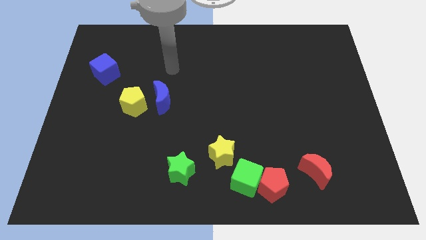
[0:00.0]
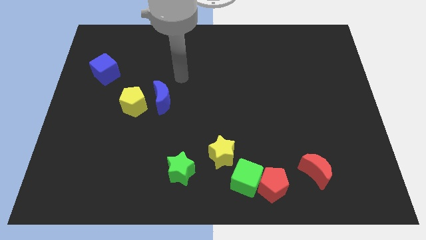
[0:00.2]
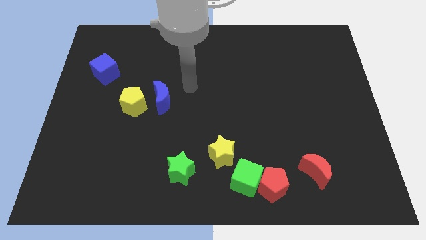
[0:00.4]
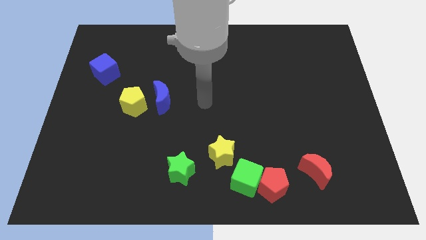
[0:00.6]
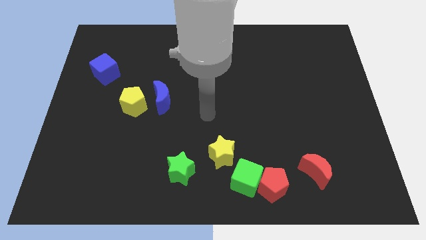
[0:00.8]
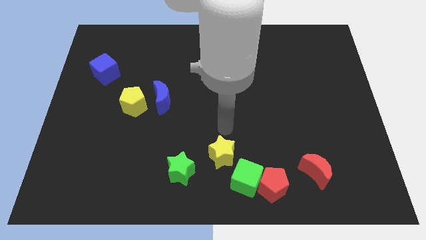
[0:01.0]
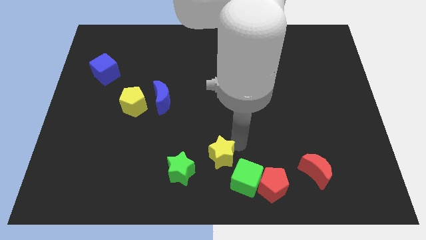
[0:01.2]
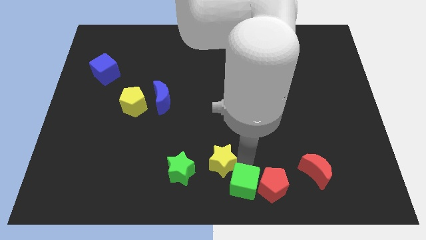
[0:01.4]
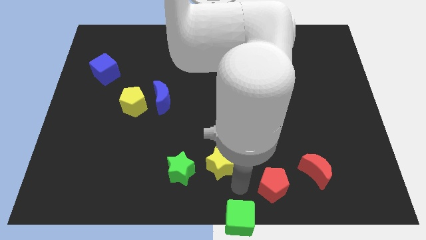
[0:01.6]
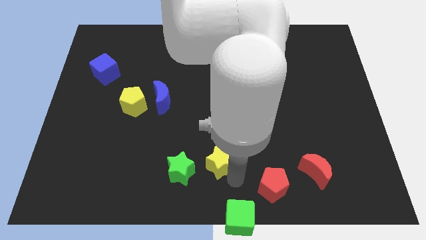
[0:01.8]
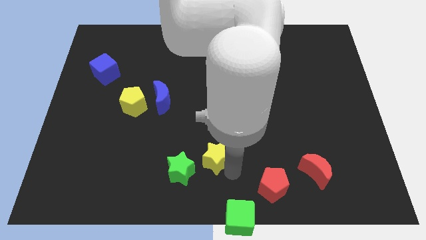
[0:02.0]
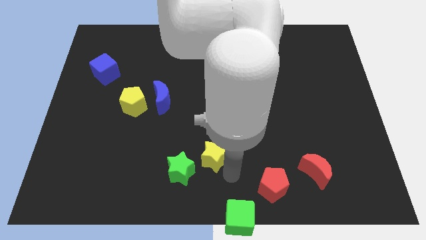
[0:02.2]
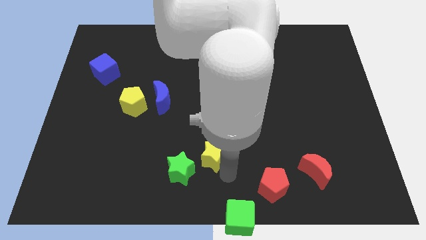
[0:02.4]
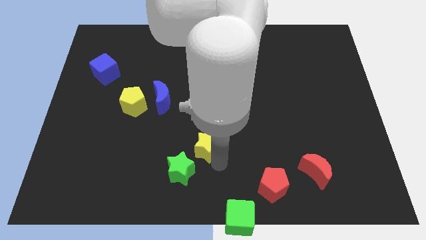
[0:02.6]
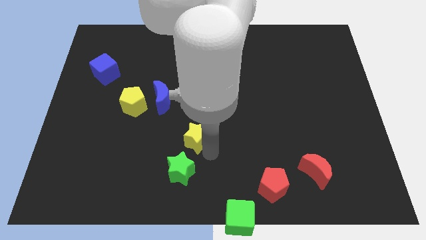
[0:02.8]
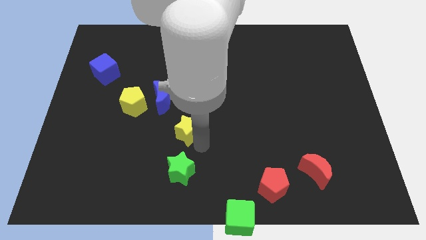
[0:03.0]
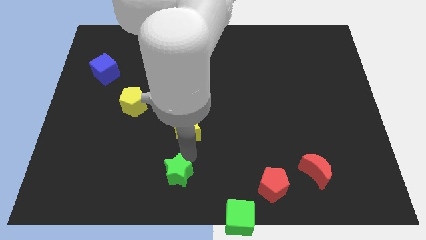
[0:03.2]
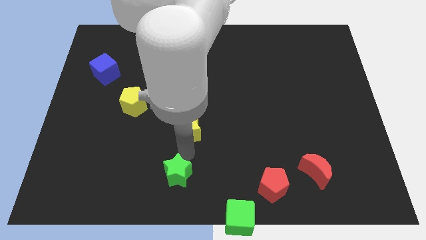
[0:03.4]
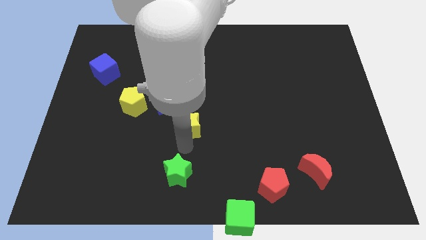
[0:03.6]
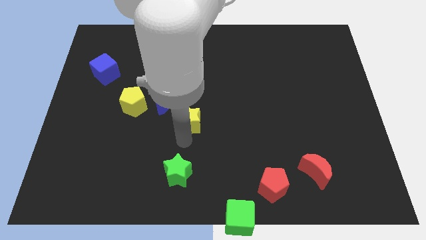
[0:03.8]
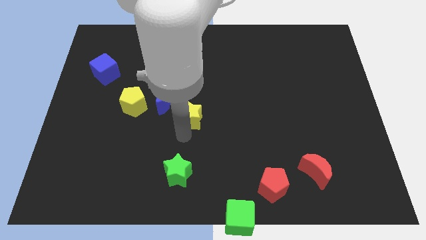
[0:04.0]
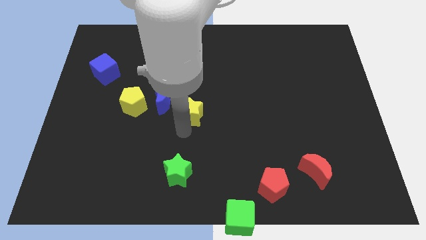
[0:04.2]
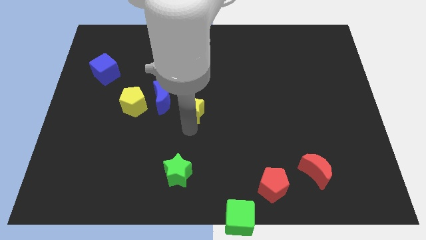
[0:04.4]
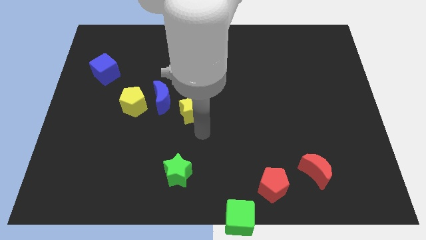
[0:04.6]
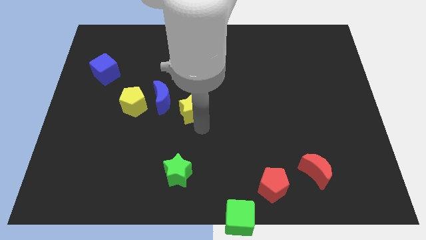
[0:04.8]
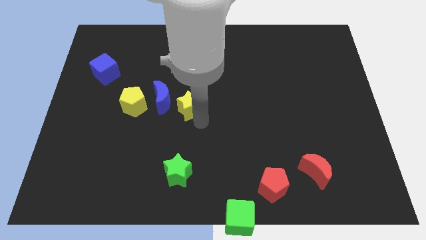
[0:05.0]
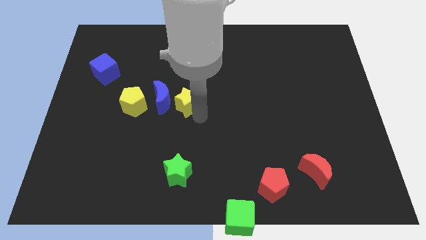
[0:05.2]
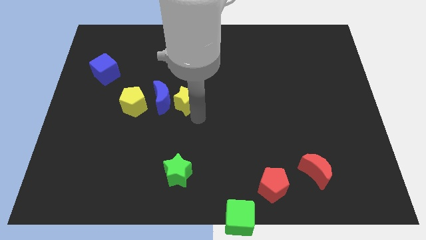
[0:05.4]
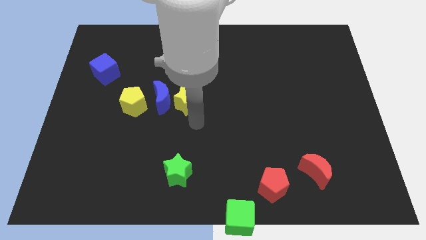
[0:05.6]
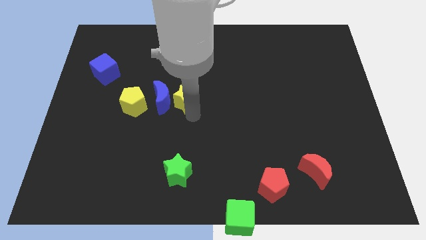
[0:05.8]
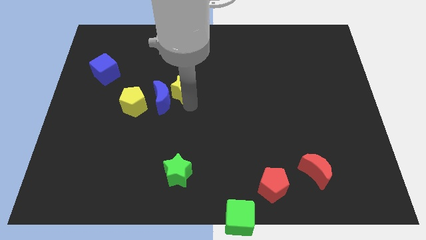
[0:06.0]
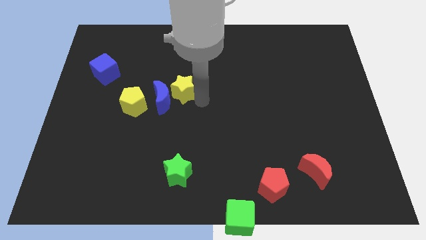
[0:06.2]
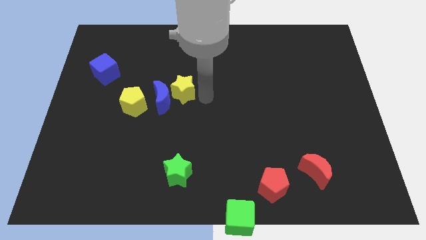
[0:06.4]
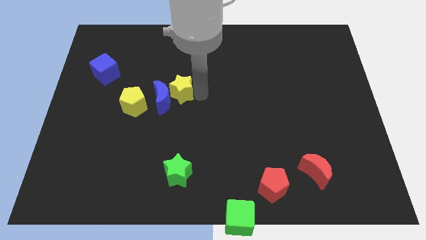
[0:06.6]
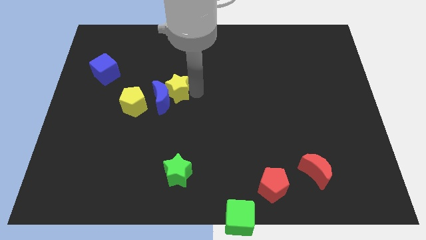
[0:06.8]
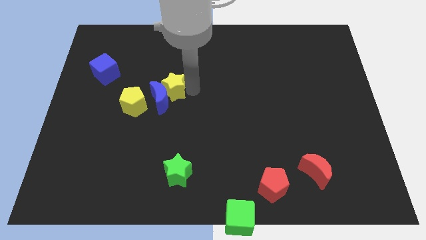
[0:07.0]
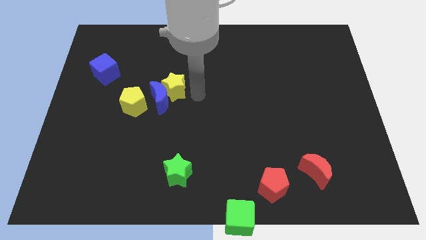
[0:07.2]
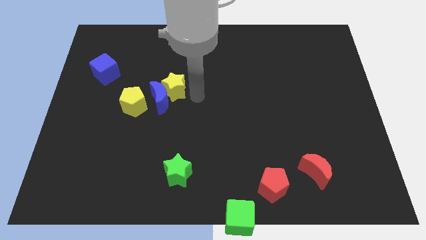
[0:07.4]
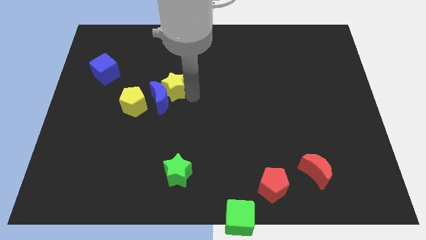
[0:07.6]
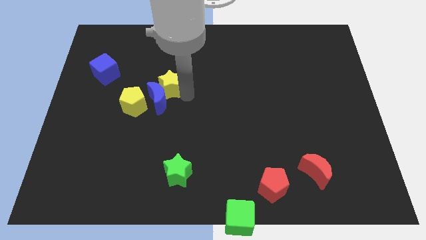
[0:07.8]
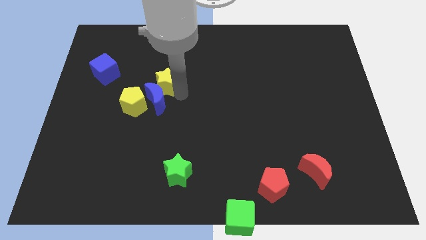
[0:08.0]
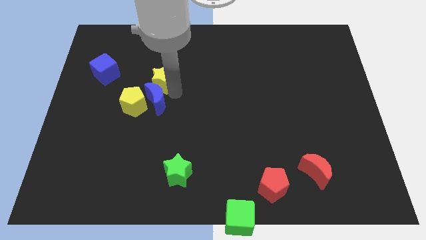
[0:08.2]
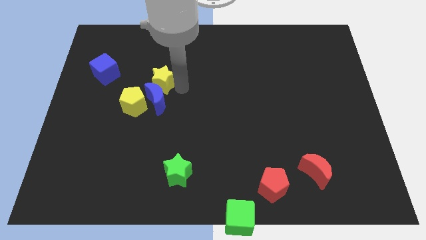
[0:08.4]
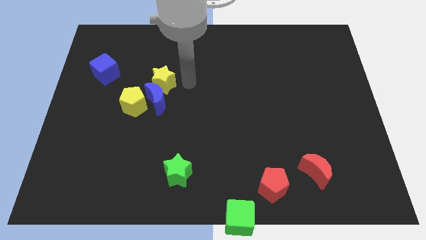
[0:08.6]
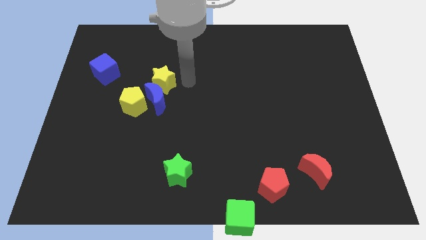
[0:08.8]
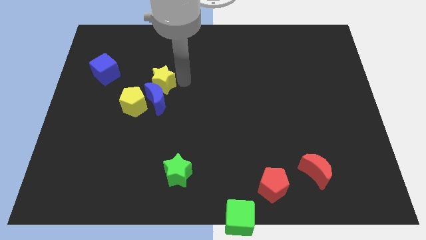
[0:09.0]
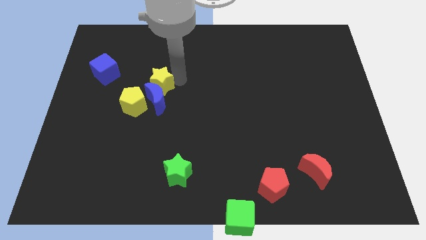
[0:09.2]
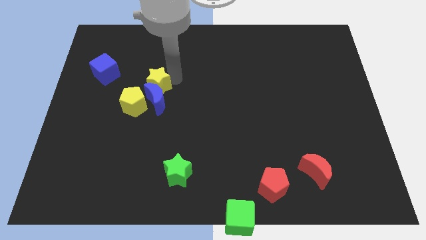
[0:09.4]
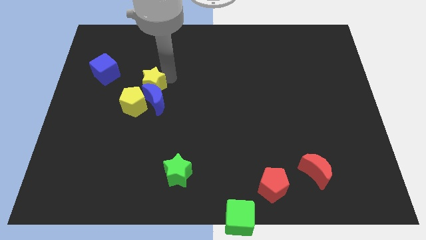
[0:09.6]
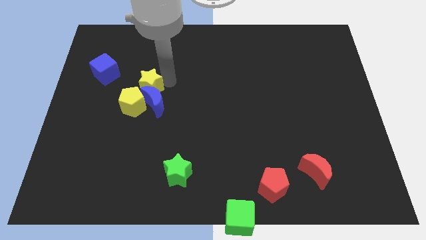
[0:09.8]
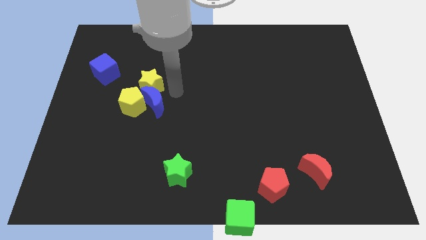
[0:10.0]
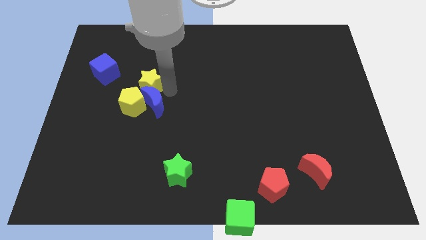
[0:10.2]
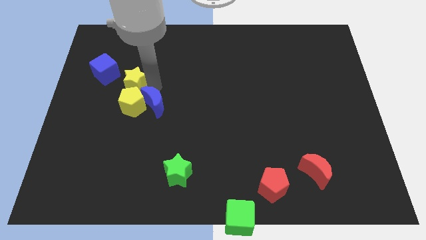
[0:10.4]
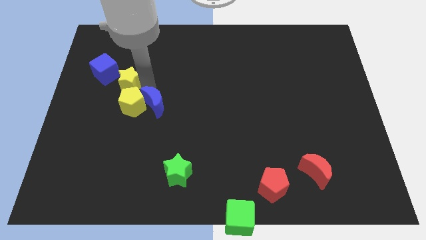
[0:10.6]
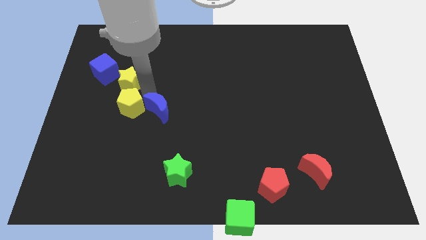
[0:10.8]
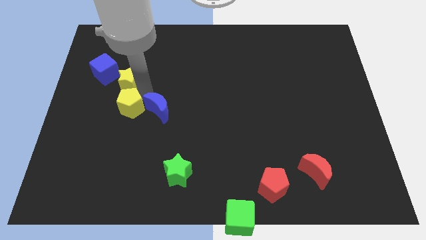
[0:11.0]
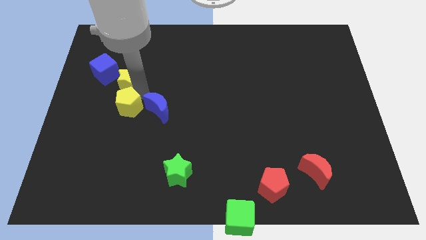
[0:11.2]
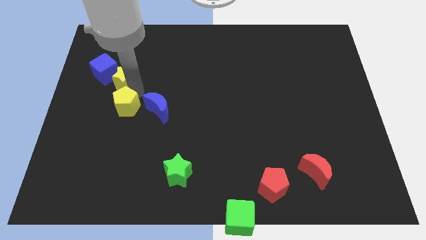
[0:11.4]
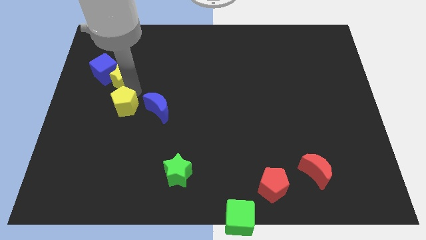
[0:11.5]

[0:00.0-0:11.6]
move the yellow star close to the blue cube

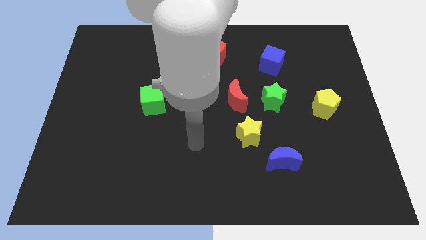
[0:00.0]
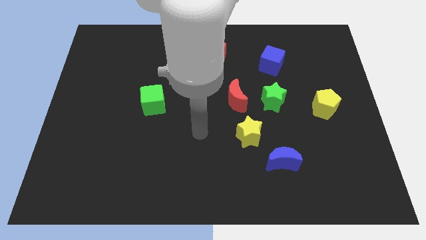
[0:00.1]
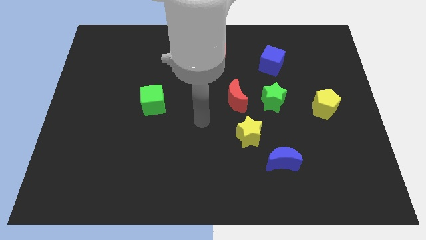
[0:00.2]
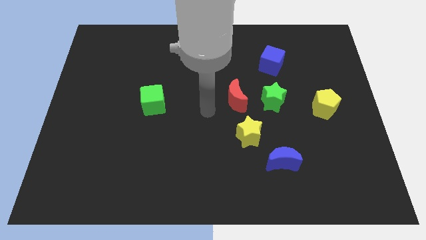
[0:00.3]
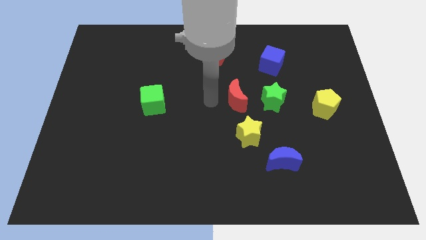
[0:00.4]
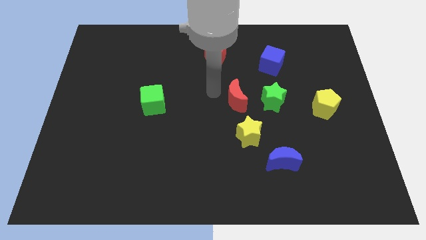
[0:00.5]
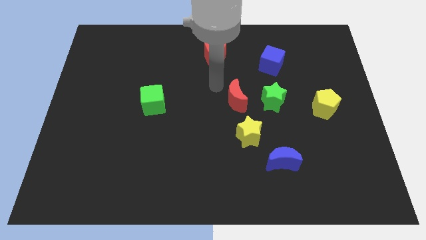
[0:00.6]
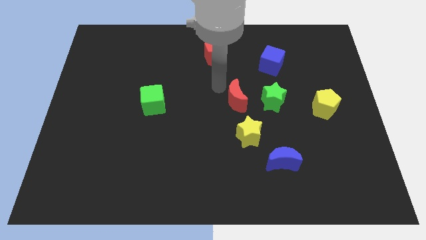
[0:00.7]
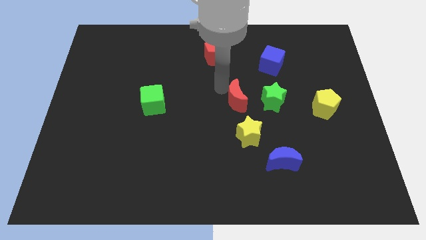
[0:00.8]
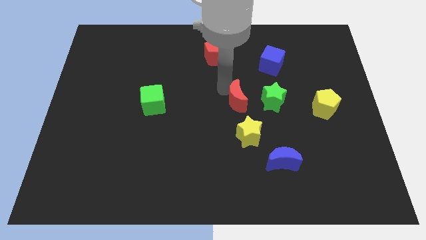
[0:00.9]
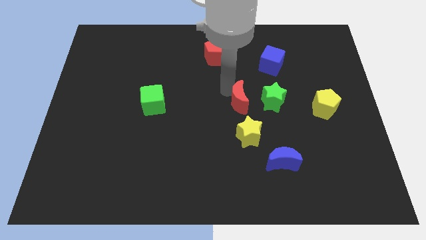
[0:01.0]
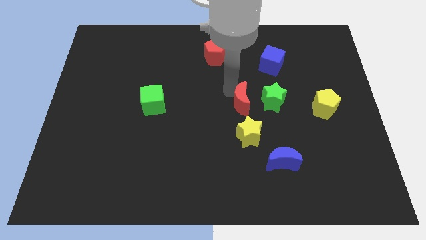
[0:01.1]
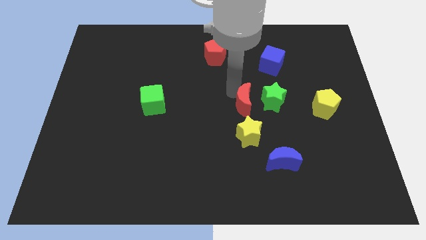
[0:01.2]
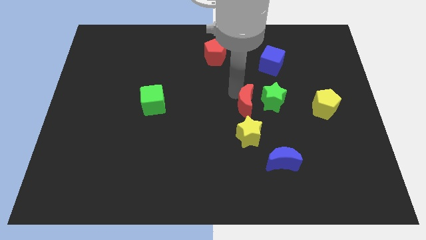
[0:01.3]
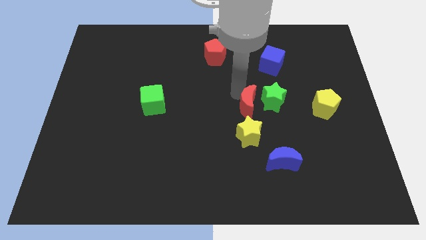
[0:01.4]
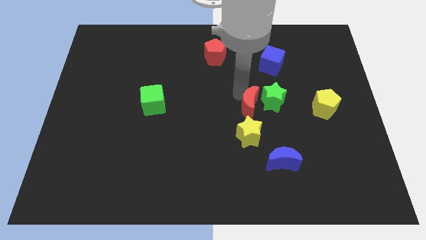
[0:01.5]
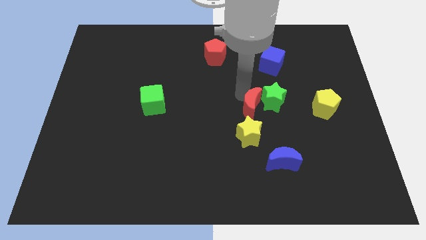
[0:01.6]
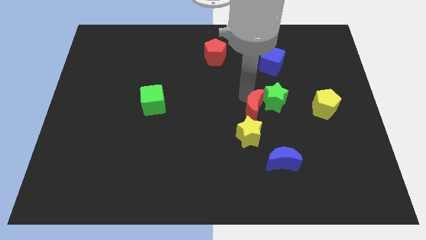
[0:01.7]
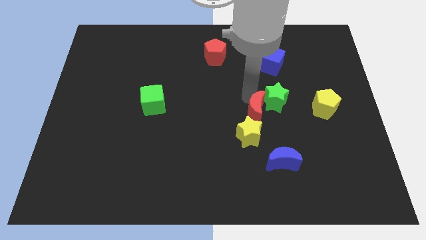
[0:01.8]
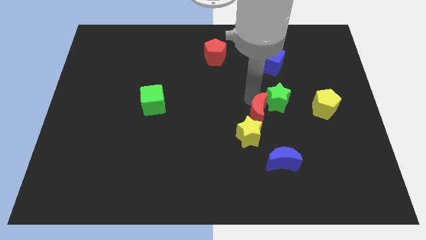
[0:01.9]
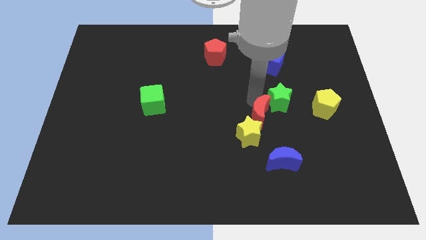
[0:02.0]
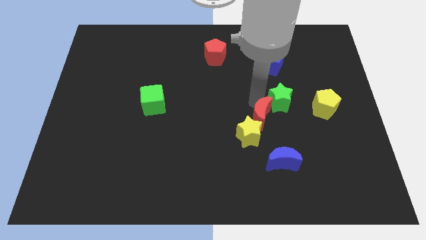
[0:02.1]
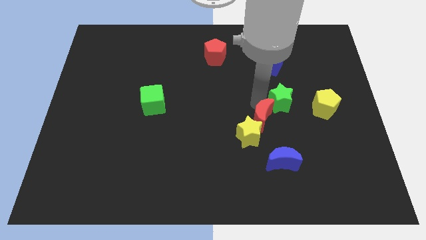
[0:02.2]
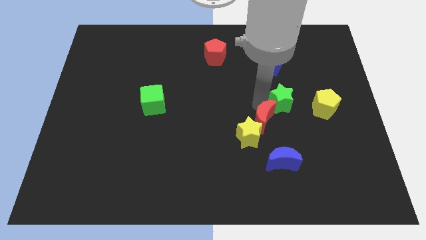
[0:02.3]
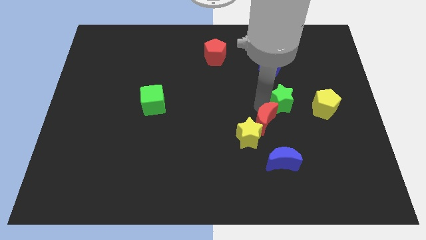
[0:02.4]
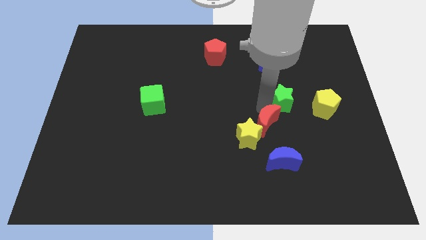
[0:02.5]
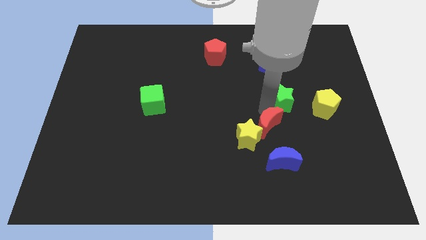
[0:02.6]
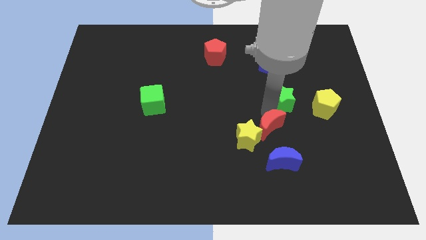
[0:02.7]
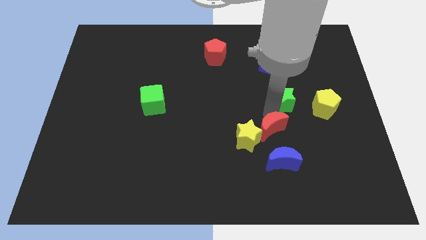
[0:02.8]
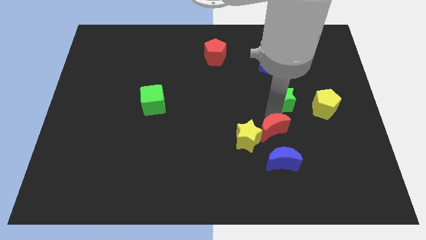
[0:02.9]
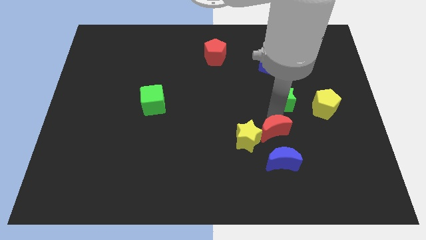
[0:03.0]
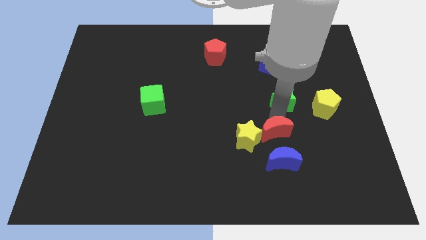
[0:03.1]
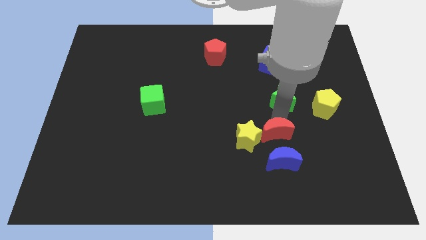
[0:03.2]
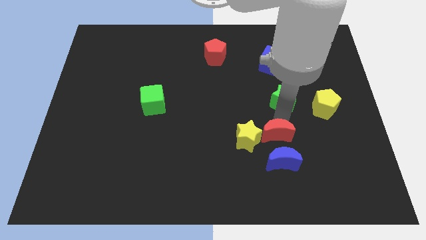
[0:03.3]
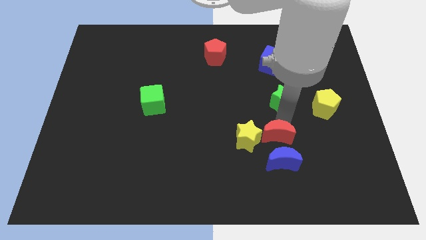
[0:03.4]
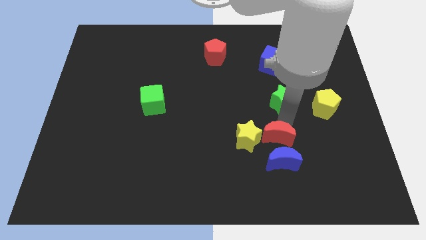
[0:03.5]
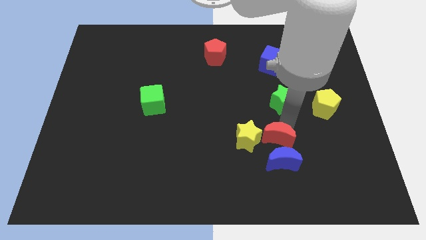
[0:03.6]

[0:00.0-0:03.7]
slide the red moon to the blue moon
